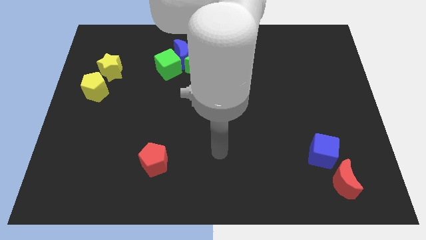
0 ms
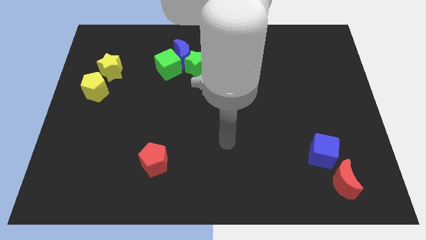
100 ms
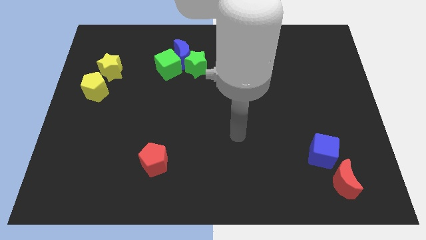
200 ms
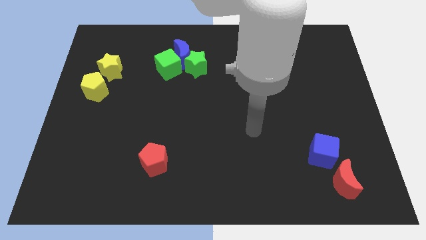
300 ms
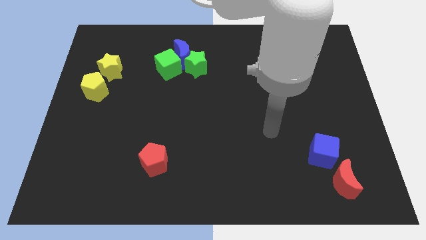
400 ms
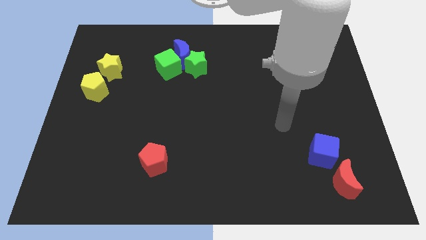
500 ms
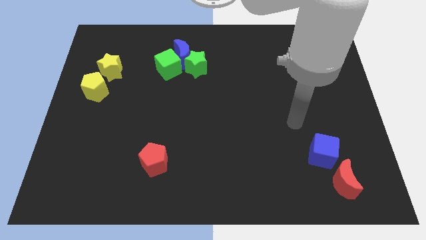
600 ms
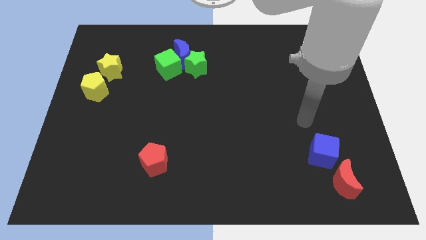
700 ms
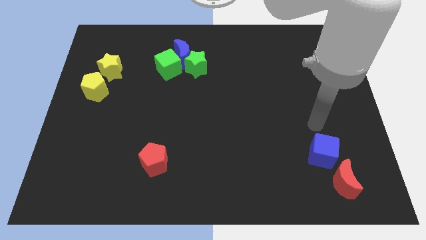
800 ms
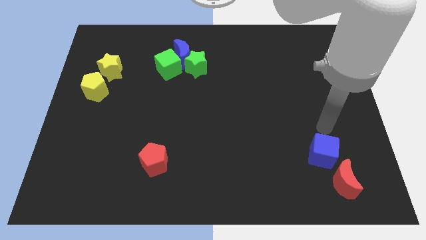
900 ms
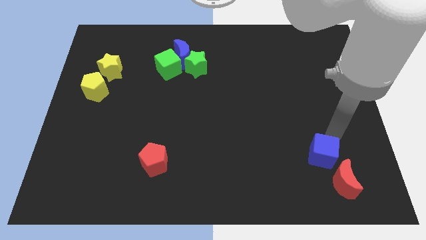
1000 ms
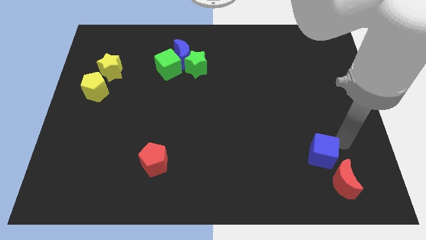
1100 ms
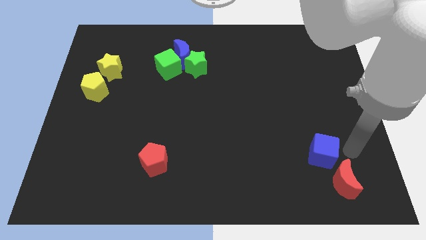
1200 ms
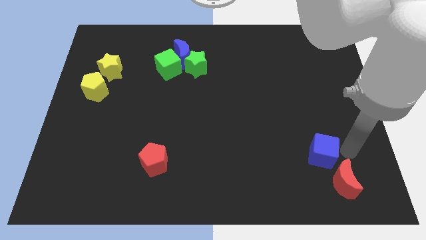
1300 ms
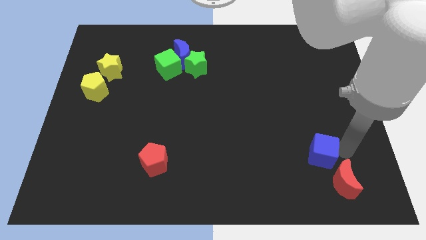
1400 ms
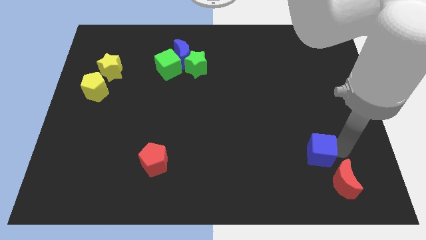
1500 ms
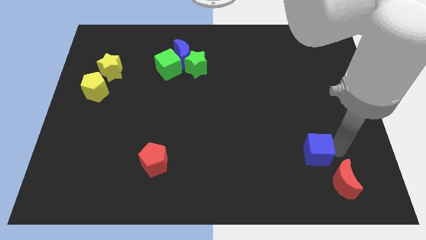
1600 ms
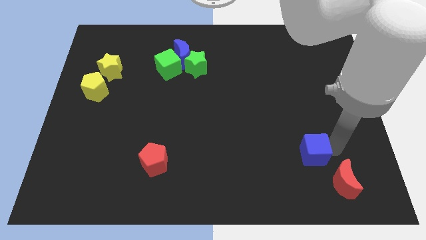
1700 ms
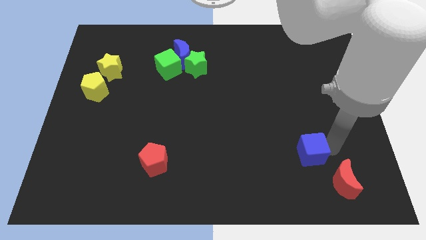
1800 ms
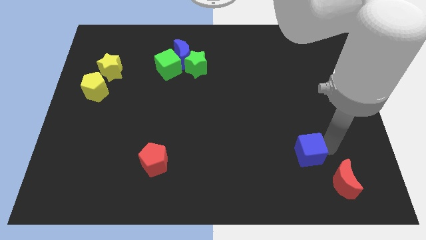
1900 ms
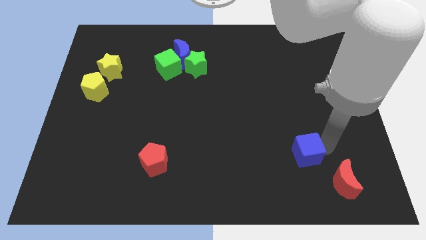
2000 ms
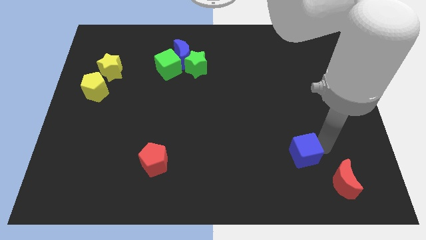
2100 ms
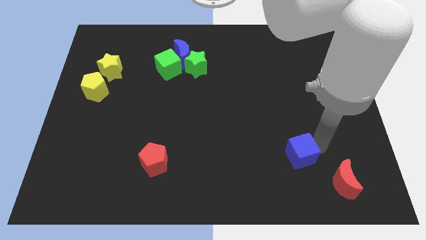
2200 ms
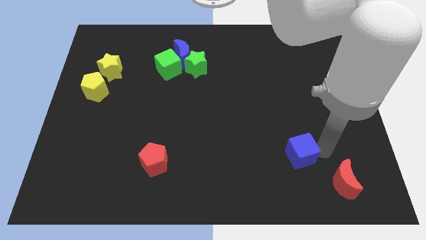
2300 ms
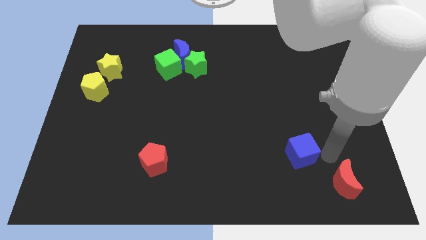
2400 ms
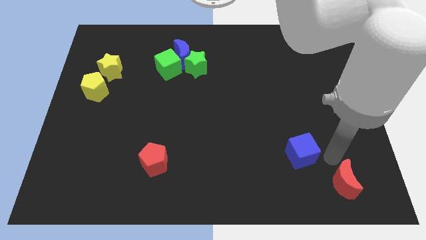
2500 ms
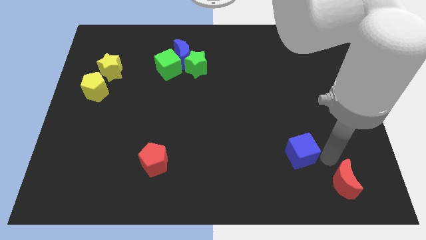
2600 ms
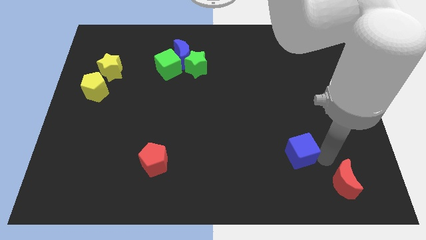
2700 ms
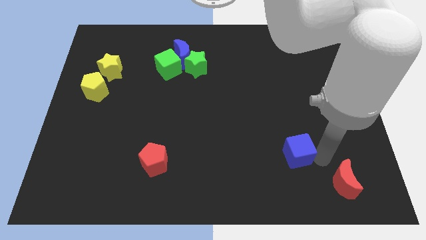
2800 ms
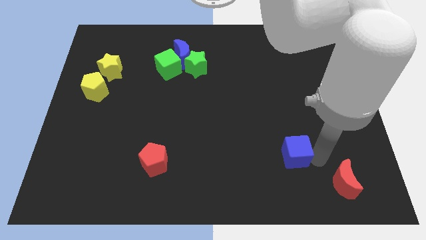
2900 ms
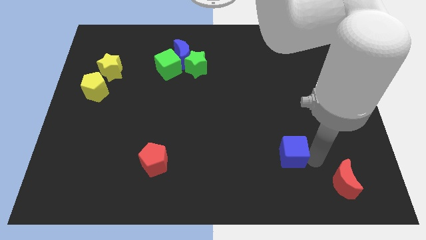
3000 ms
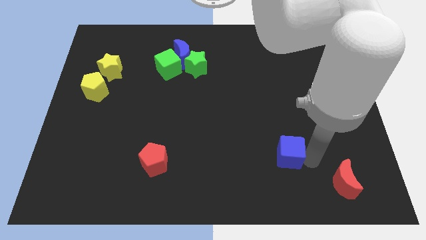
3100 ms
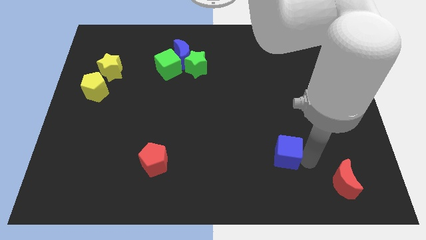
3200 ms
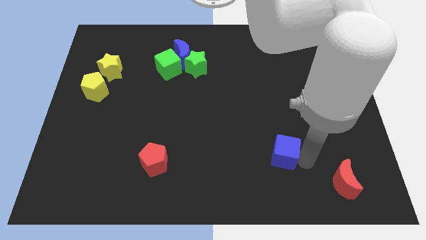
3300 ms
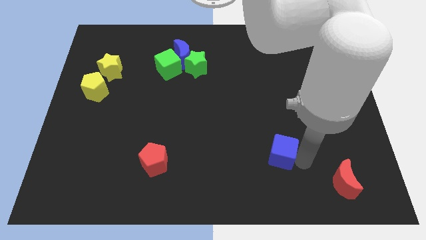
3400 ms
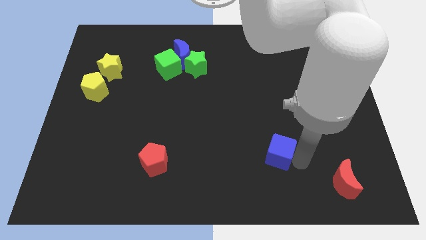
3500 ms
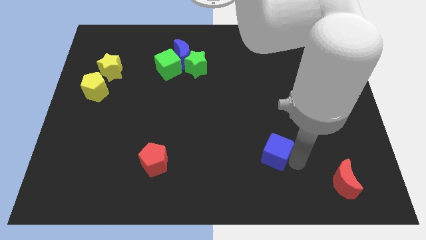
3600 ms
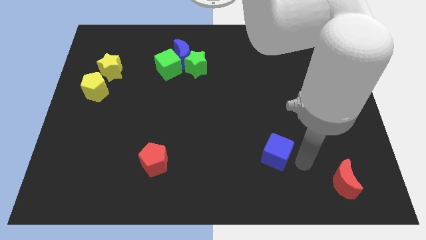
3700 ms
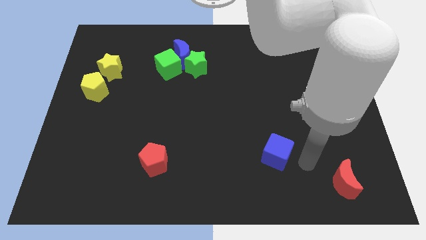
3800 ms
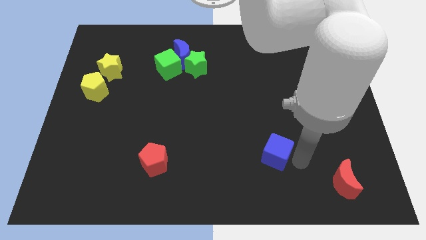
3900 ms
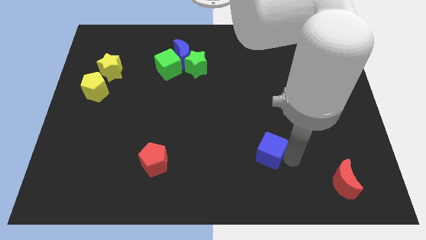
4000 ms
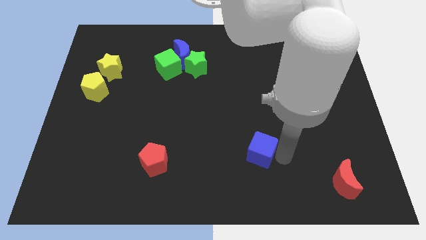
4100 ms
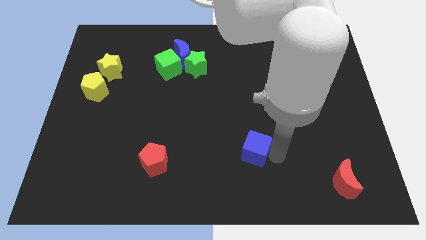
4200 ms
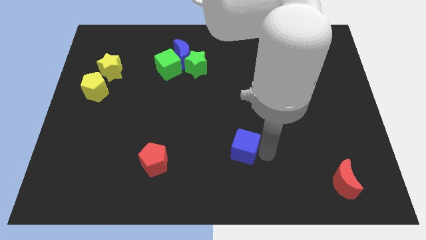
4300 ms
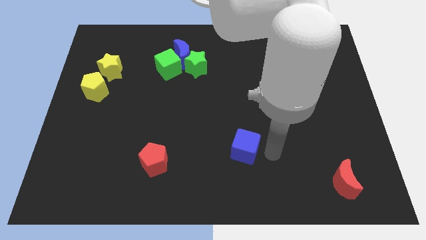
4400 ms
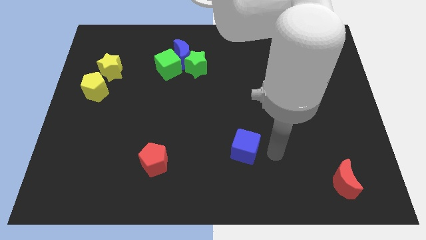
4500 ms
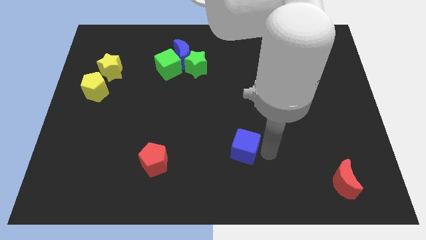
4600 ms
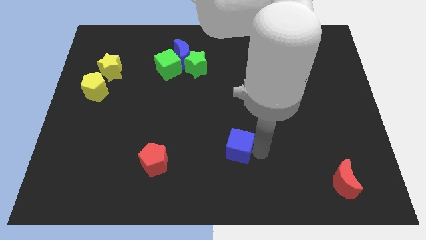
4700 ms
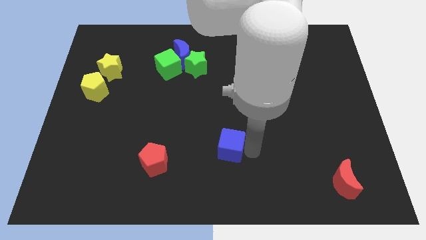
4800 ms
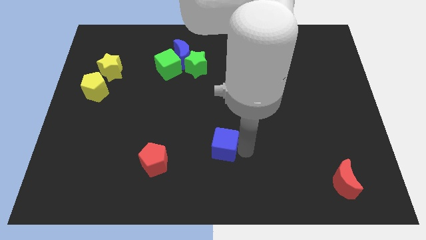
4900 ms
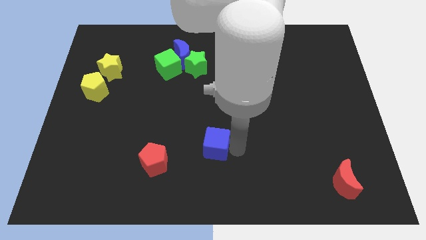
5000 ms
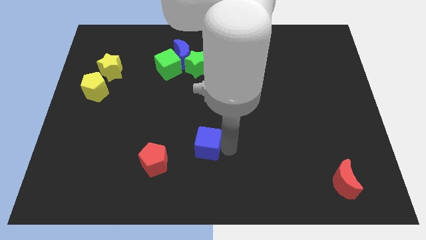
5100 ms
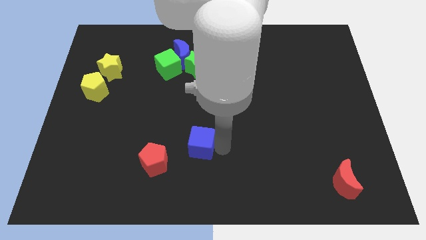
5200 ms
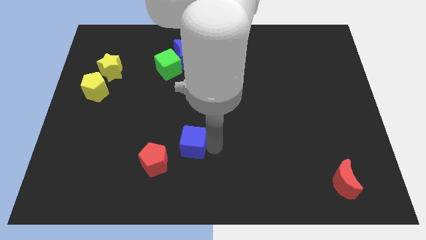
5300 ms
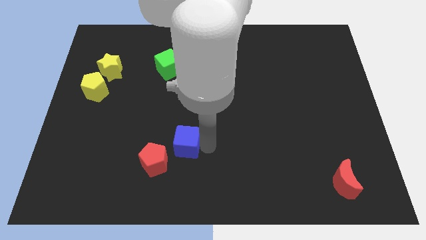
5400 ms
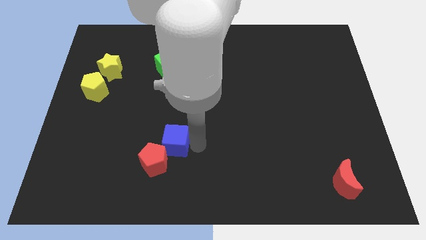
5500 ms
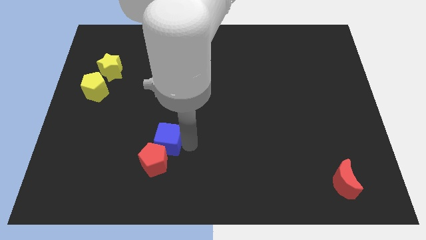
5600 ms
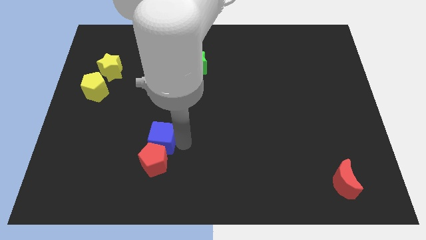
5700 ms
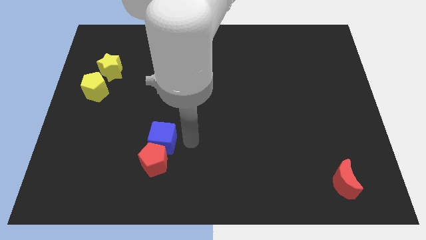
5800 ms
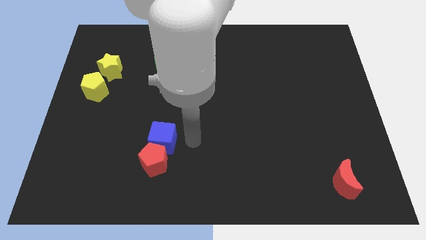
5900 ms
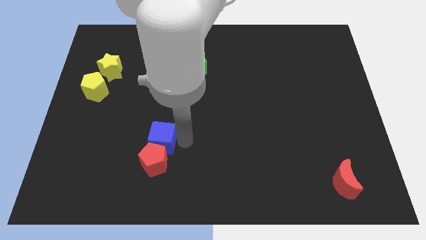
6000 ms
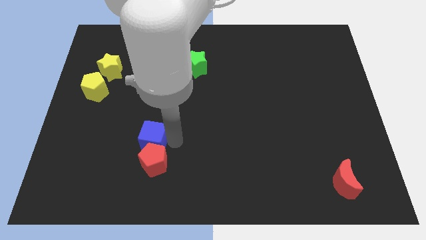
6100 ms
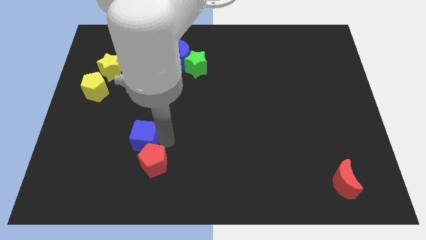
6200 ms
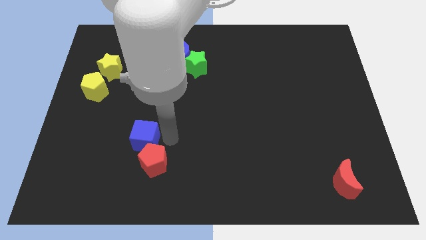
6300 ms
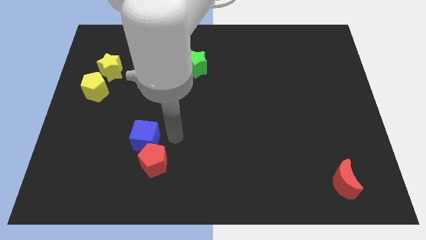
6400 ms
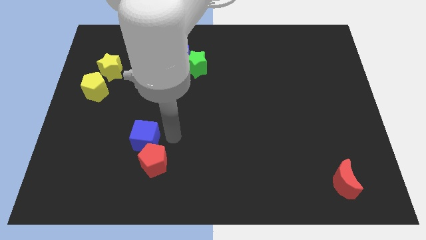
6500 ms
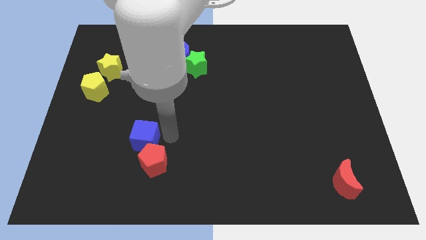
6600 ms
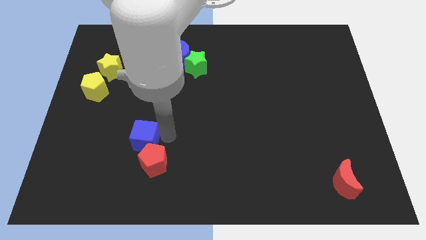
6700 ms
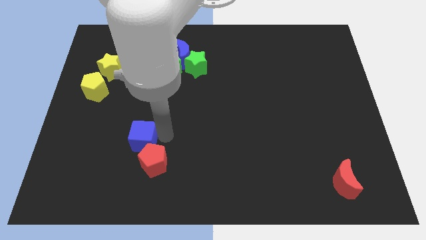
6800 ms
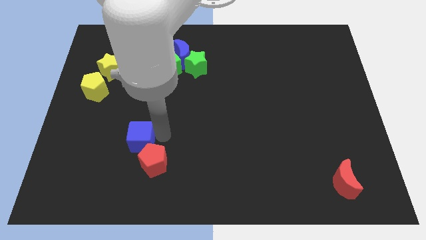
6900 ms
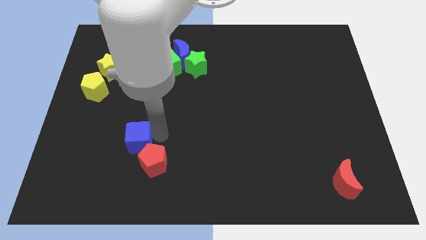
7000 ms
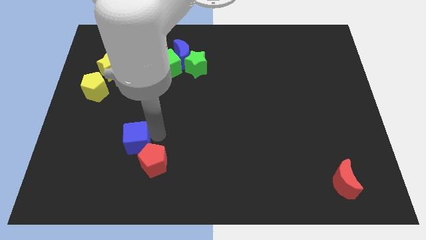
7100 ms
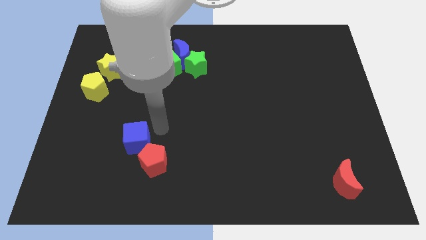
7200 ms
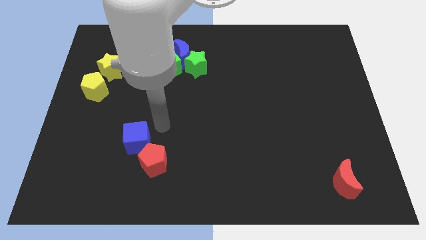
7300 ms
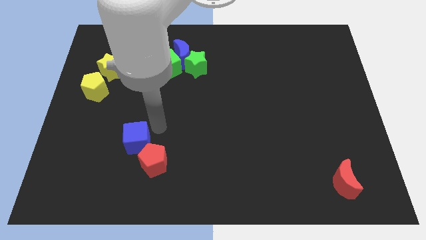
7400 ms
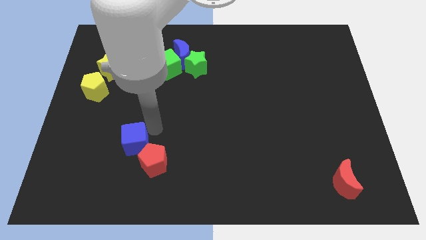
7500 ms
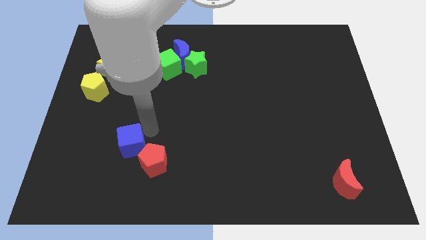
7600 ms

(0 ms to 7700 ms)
push the blue cube to the left side of the red pentagon
